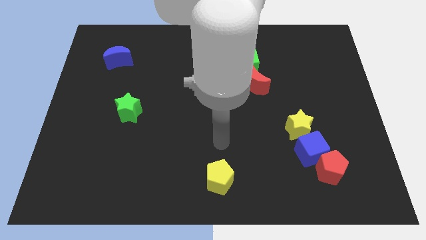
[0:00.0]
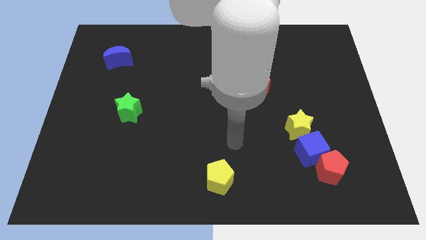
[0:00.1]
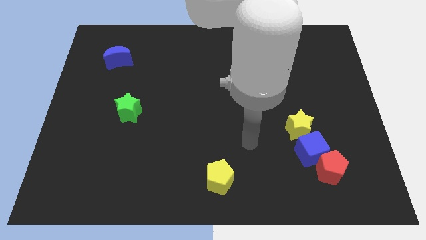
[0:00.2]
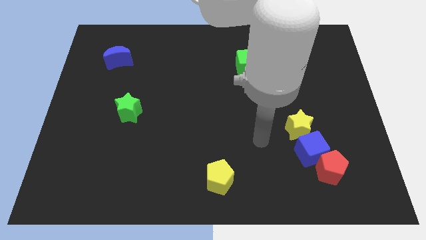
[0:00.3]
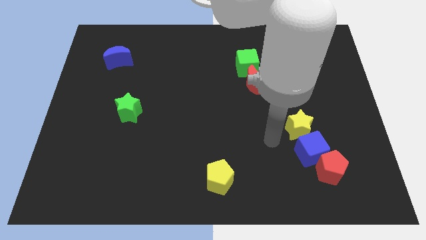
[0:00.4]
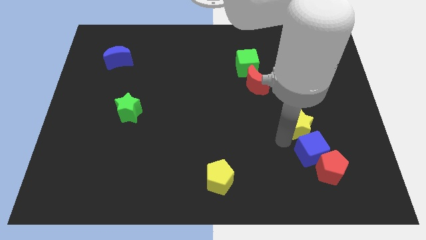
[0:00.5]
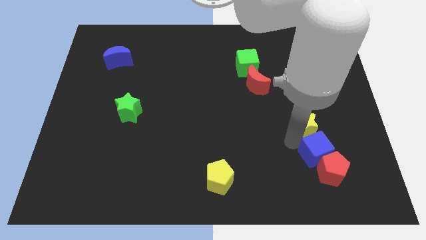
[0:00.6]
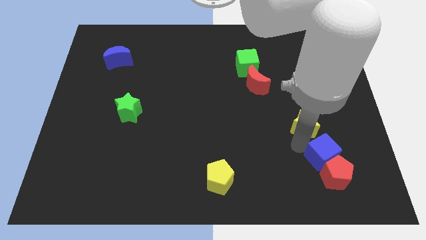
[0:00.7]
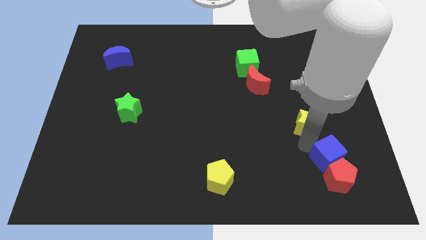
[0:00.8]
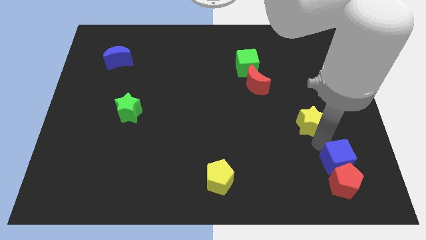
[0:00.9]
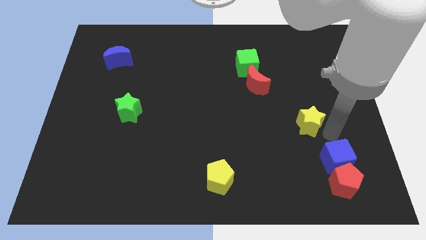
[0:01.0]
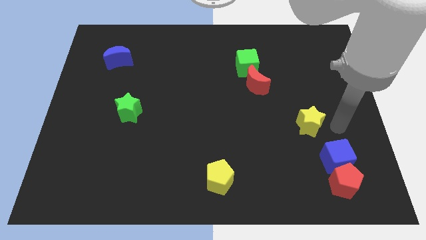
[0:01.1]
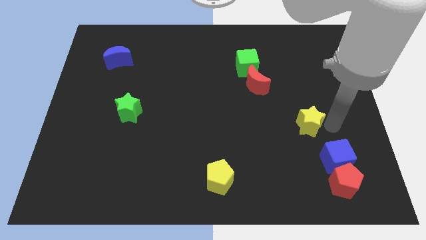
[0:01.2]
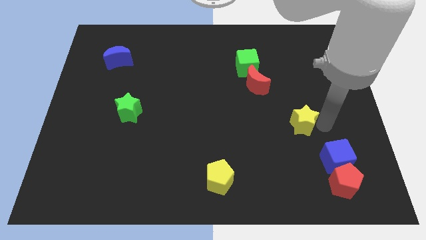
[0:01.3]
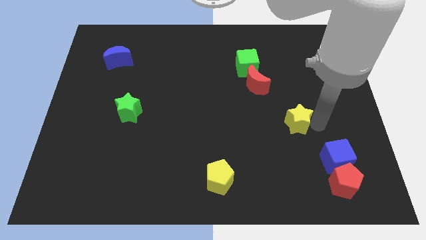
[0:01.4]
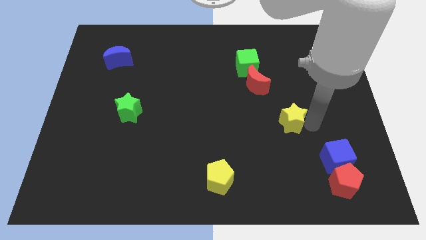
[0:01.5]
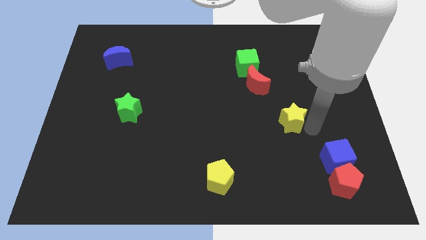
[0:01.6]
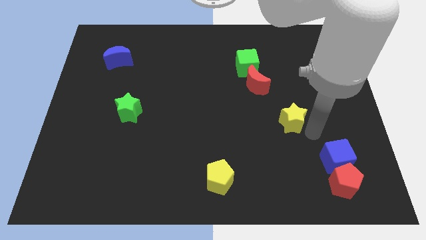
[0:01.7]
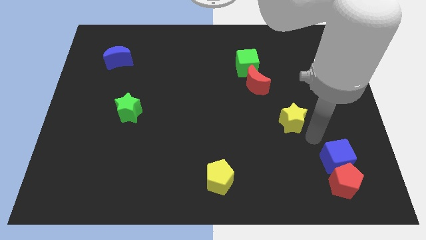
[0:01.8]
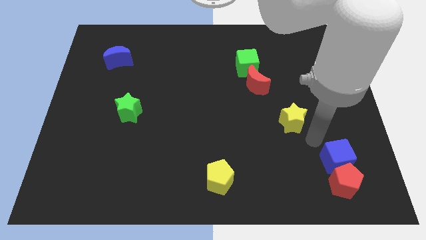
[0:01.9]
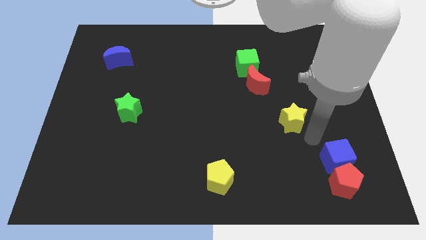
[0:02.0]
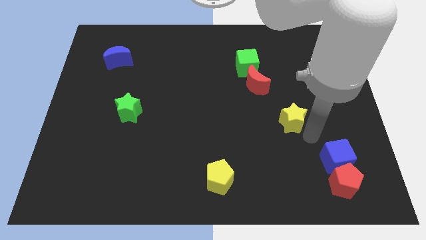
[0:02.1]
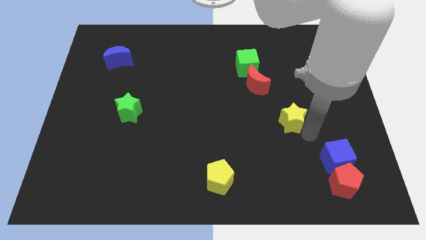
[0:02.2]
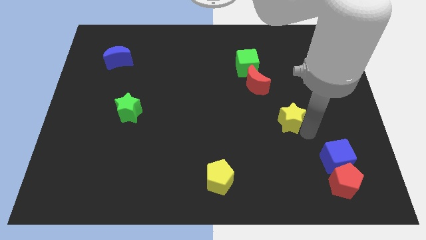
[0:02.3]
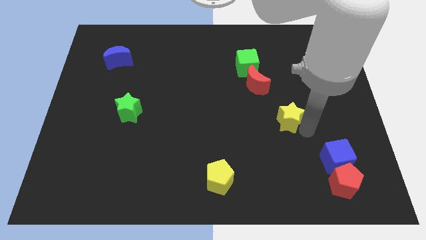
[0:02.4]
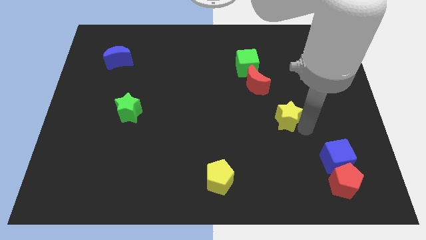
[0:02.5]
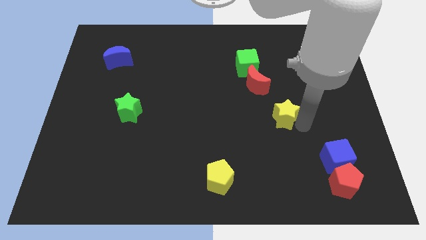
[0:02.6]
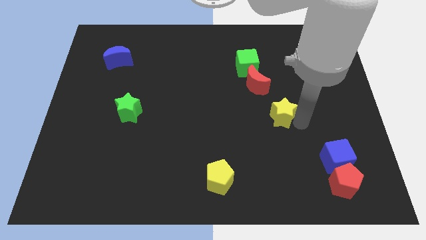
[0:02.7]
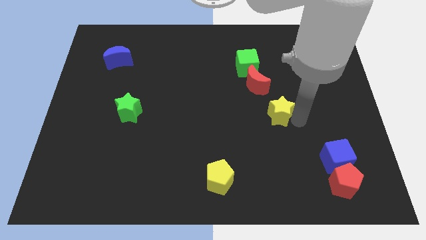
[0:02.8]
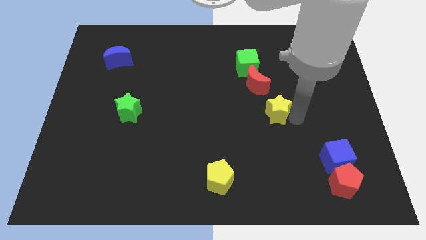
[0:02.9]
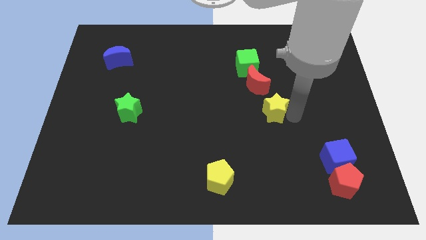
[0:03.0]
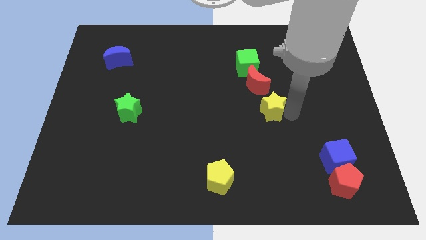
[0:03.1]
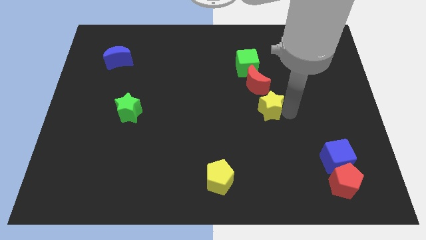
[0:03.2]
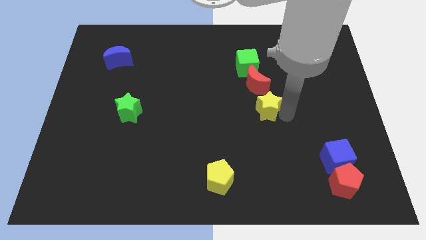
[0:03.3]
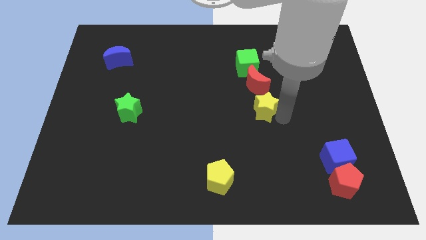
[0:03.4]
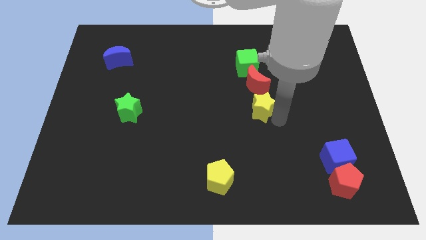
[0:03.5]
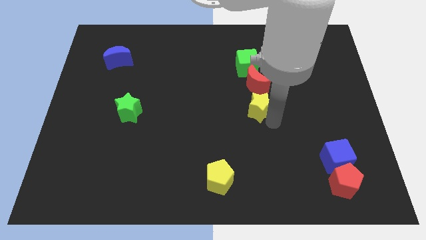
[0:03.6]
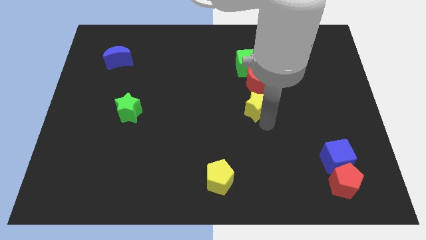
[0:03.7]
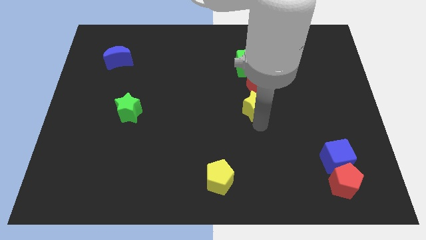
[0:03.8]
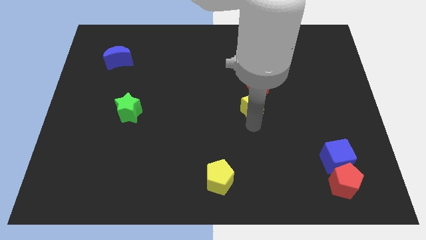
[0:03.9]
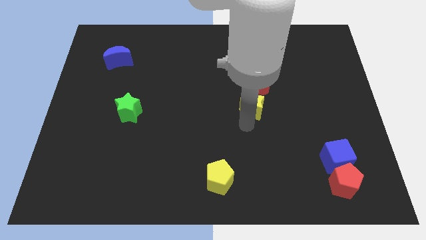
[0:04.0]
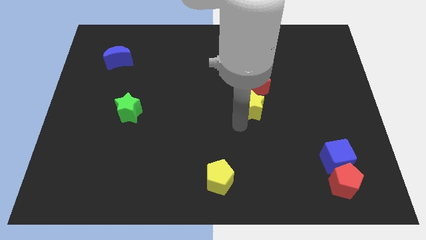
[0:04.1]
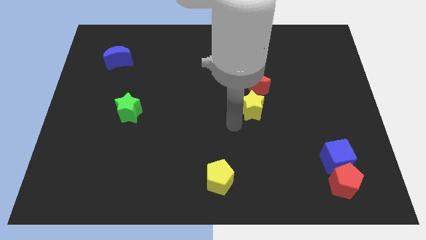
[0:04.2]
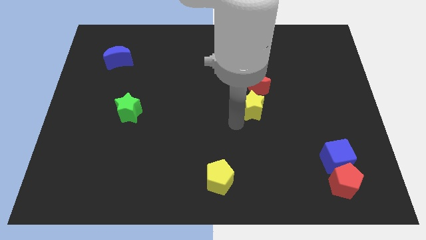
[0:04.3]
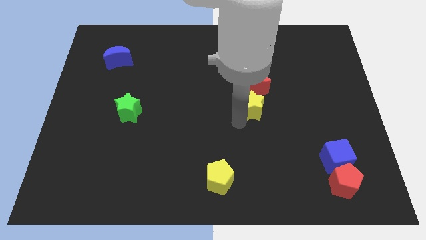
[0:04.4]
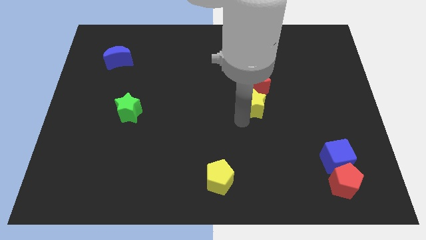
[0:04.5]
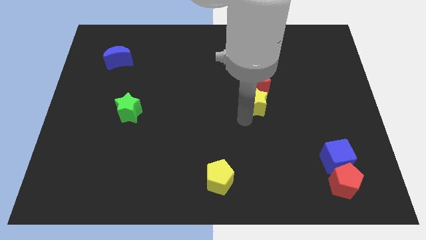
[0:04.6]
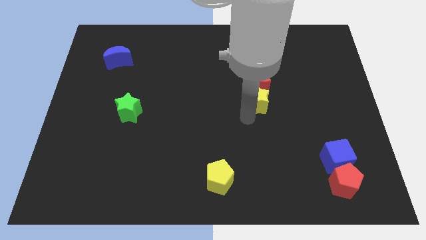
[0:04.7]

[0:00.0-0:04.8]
push the yellow star to the red moon

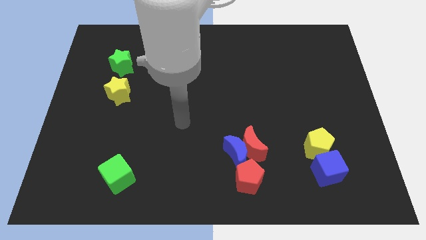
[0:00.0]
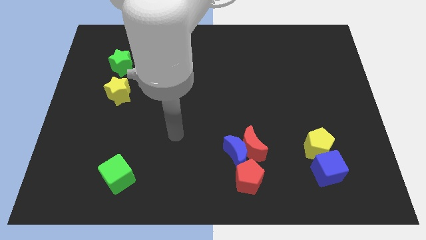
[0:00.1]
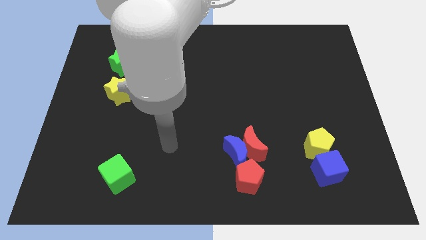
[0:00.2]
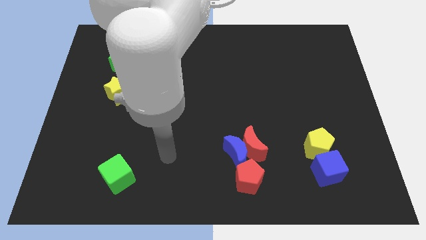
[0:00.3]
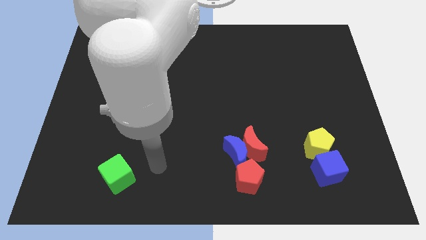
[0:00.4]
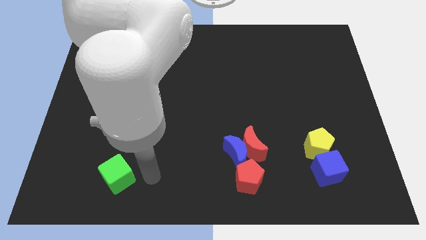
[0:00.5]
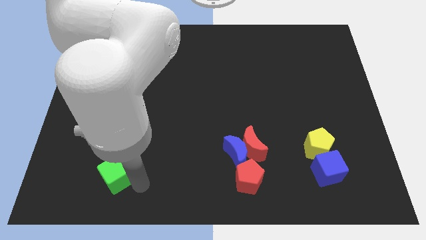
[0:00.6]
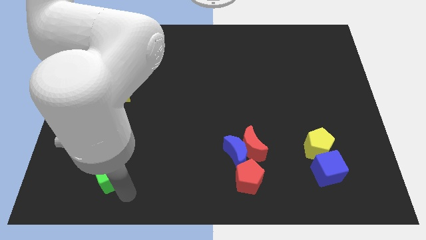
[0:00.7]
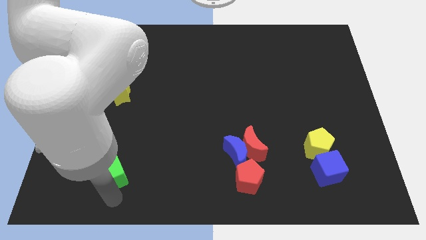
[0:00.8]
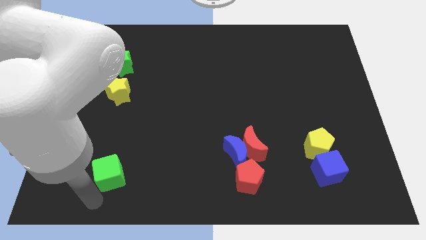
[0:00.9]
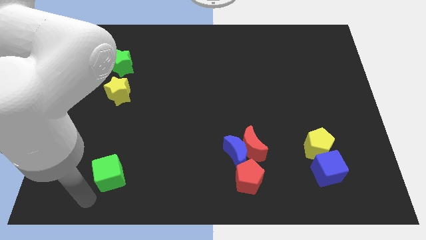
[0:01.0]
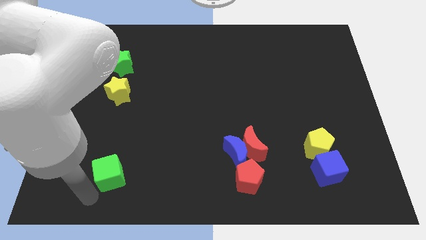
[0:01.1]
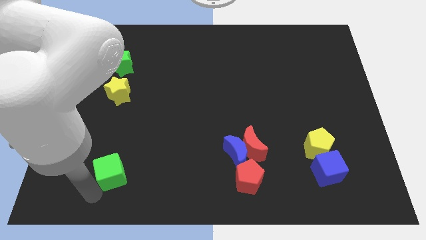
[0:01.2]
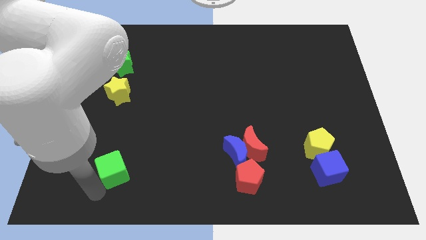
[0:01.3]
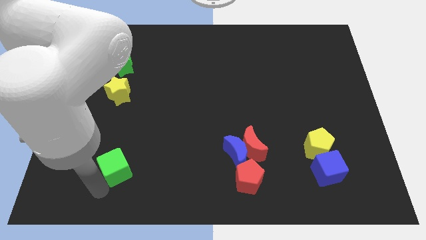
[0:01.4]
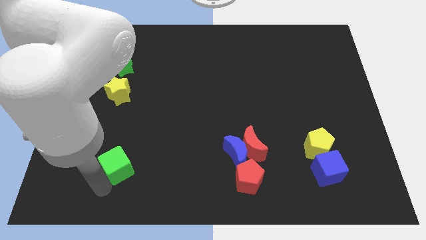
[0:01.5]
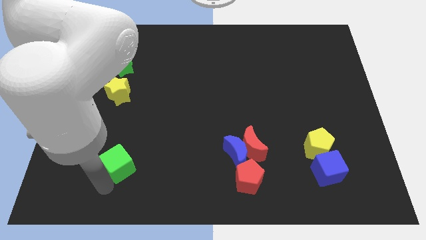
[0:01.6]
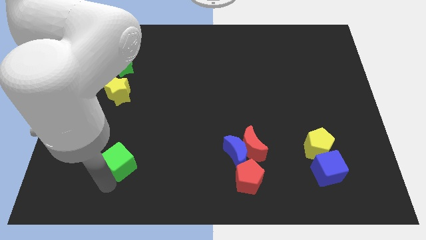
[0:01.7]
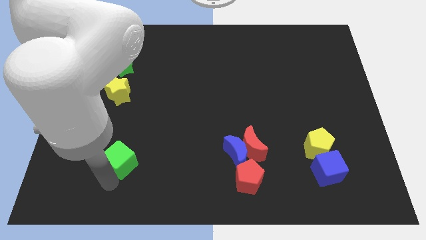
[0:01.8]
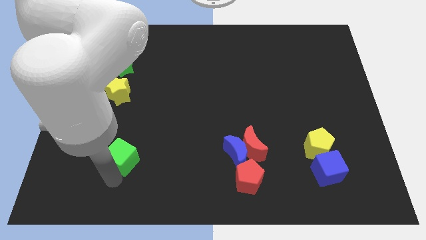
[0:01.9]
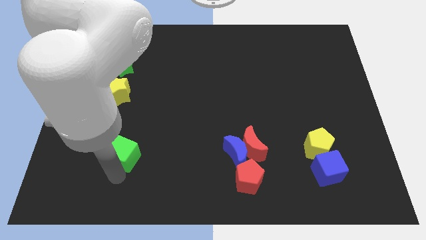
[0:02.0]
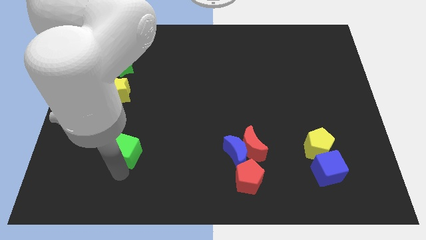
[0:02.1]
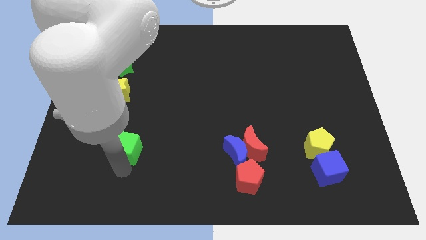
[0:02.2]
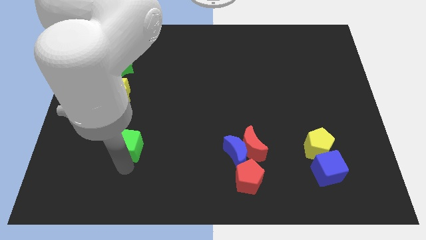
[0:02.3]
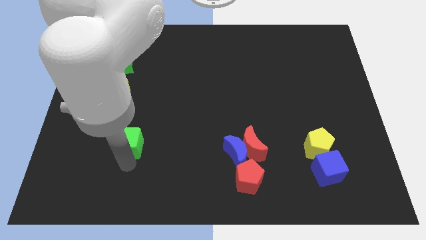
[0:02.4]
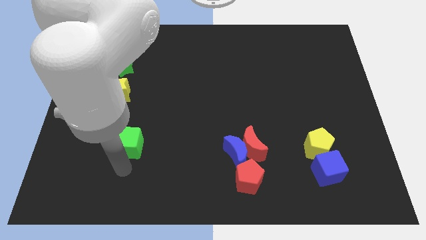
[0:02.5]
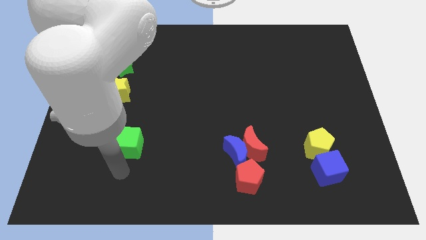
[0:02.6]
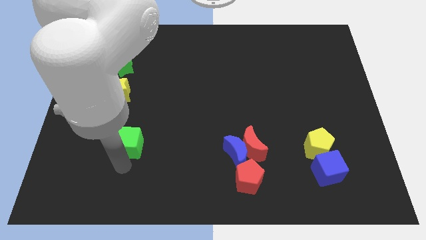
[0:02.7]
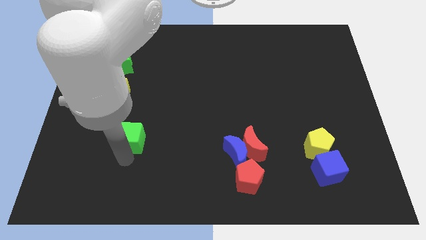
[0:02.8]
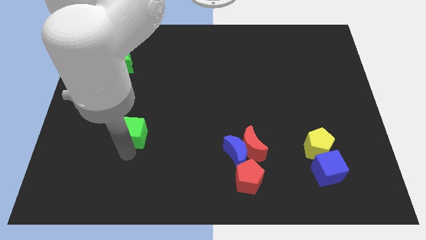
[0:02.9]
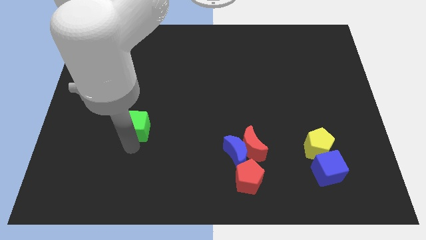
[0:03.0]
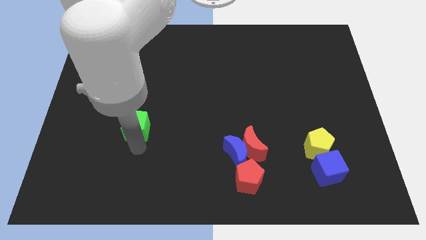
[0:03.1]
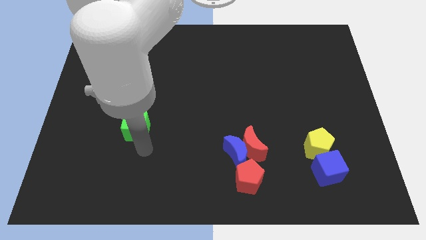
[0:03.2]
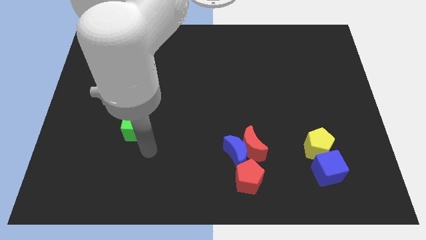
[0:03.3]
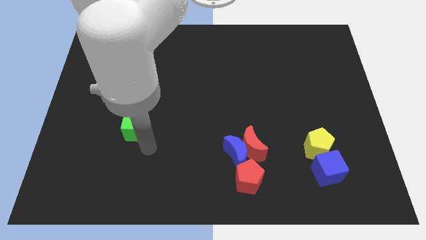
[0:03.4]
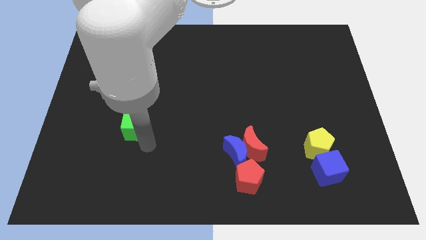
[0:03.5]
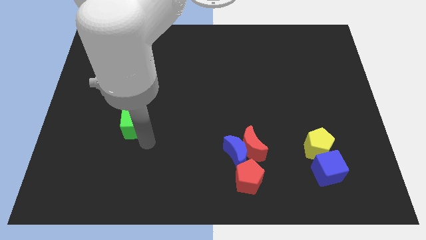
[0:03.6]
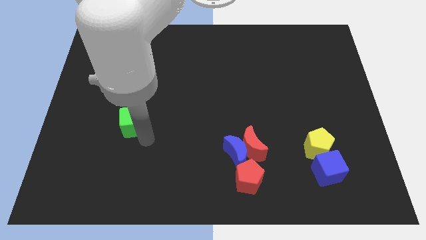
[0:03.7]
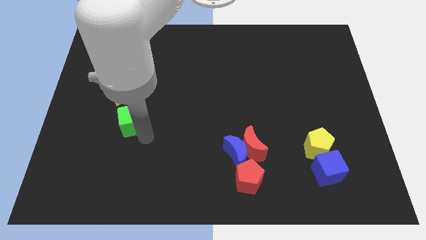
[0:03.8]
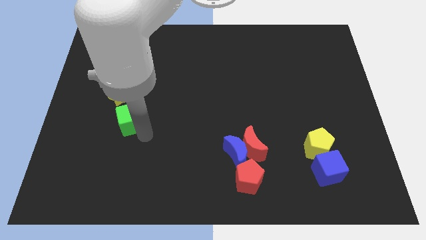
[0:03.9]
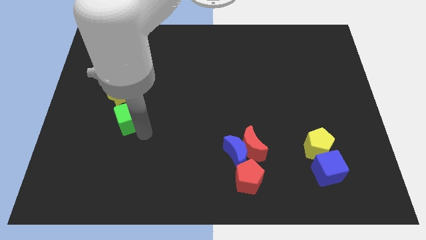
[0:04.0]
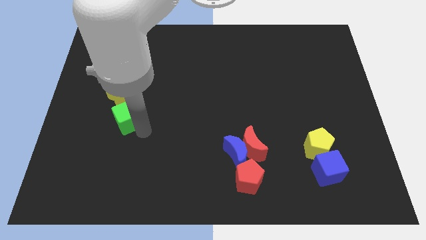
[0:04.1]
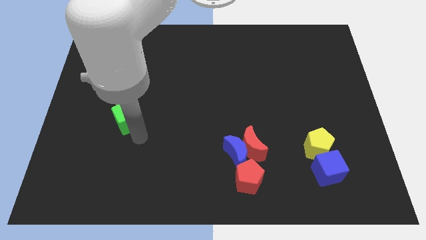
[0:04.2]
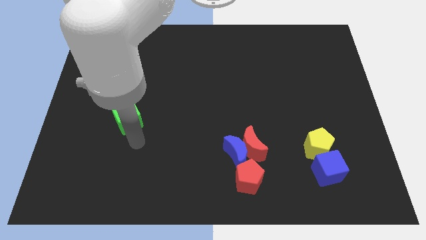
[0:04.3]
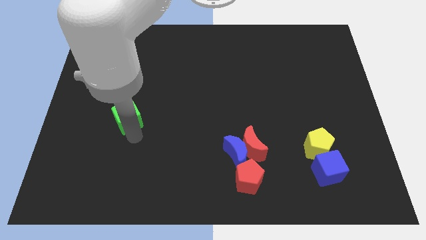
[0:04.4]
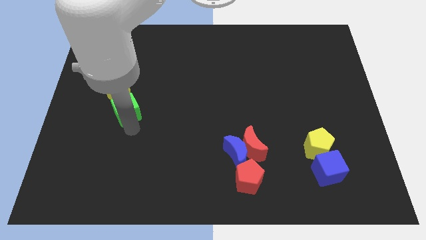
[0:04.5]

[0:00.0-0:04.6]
put the green cube close to the yellow star
